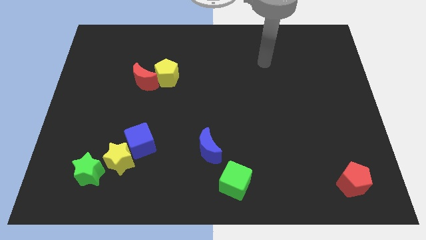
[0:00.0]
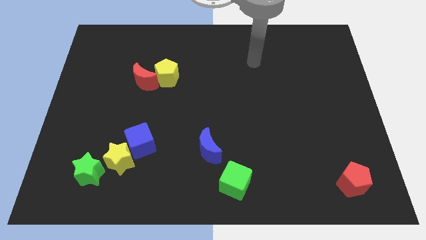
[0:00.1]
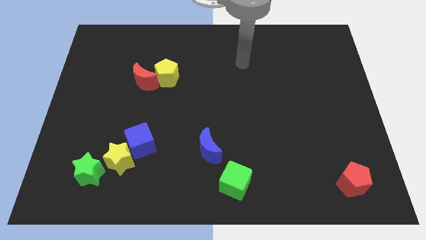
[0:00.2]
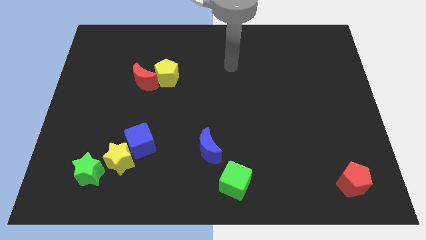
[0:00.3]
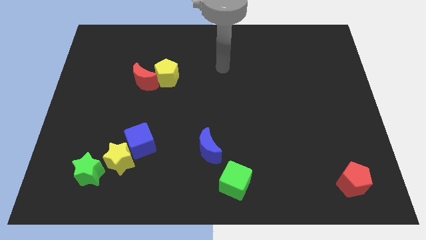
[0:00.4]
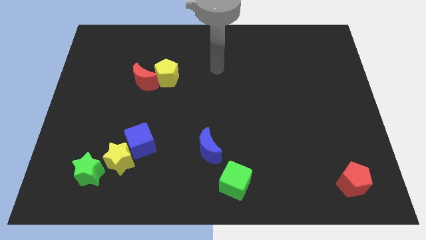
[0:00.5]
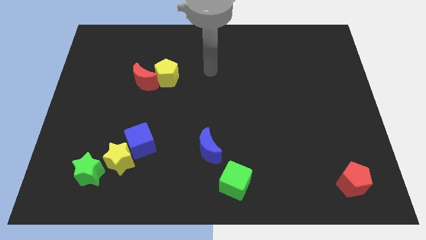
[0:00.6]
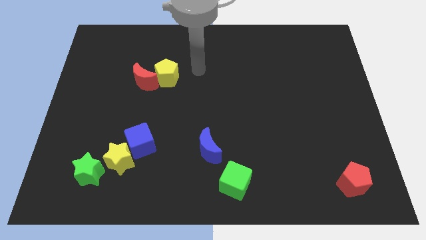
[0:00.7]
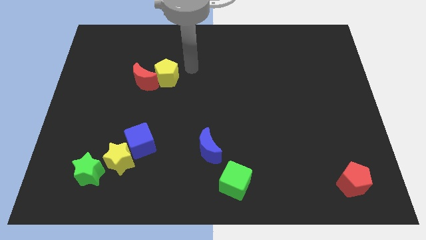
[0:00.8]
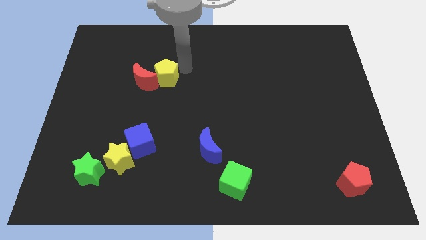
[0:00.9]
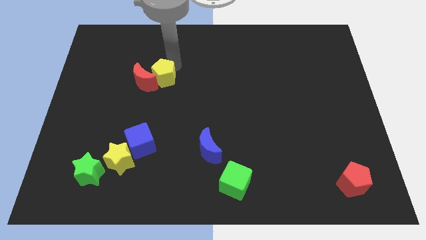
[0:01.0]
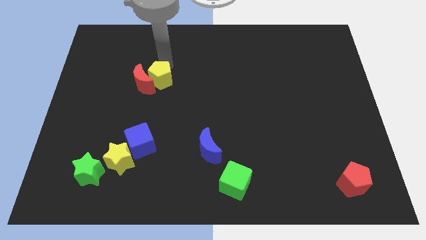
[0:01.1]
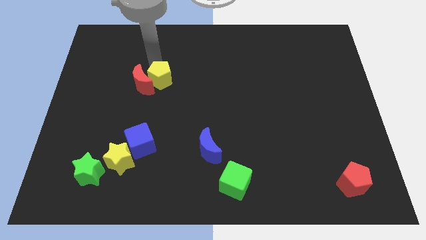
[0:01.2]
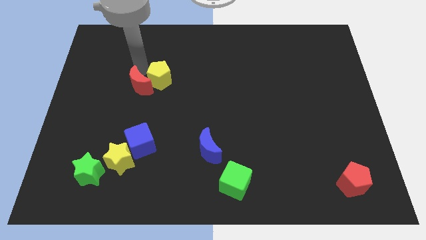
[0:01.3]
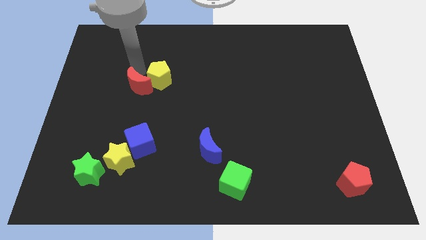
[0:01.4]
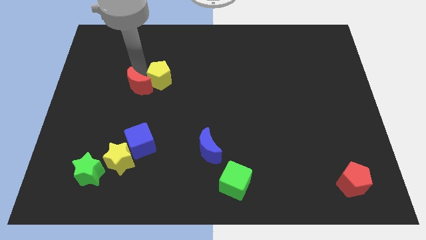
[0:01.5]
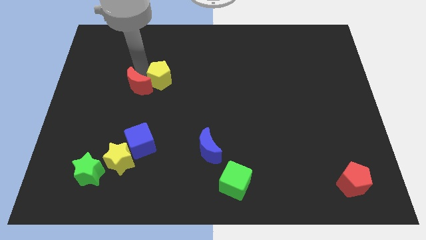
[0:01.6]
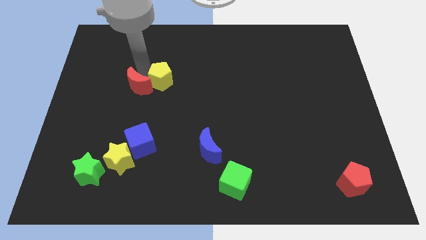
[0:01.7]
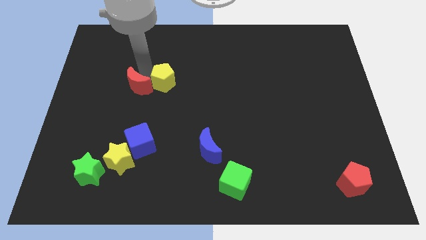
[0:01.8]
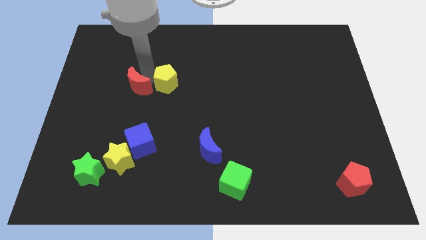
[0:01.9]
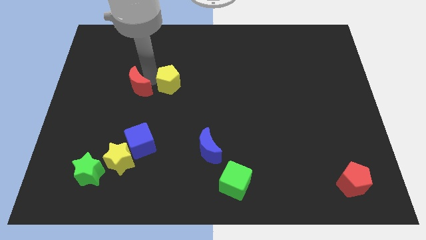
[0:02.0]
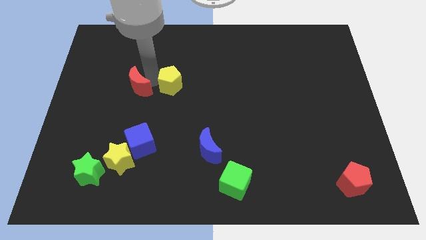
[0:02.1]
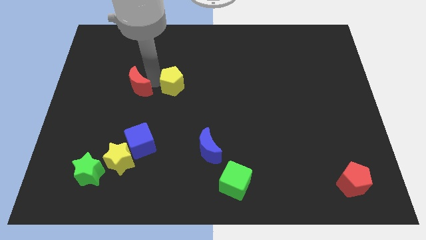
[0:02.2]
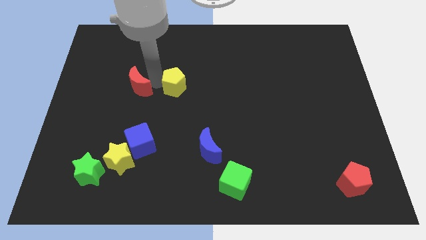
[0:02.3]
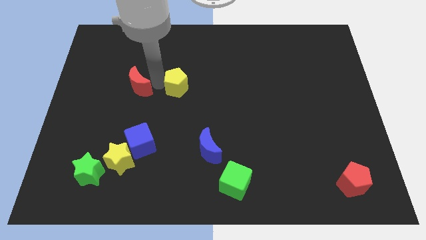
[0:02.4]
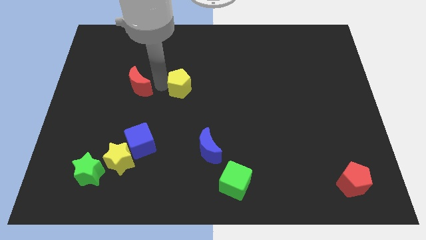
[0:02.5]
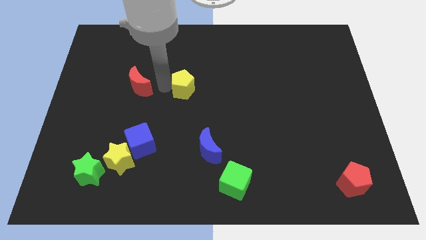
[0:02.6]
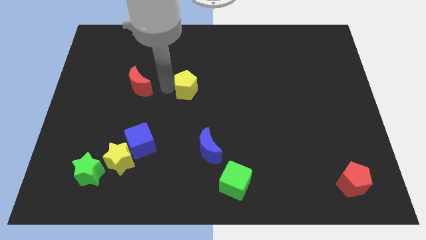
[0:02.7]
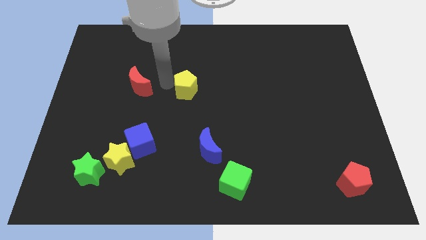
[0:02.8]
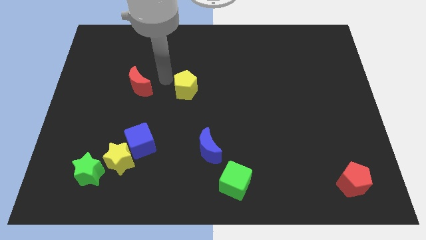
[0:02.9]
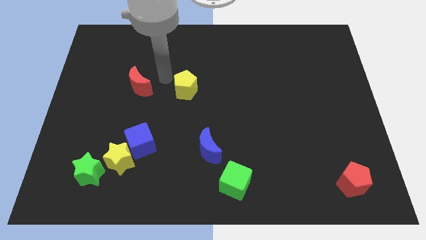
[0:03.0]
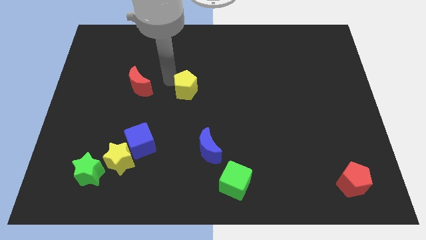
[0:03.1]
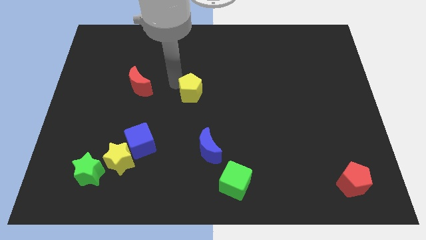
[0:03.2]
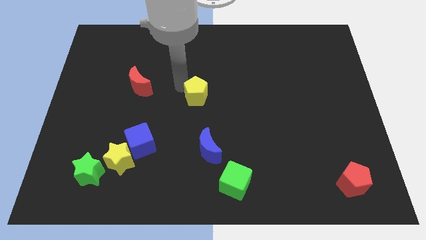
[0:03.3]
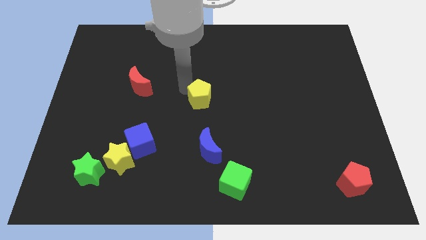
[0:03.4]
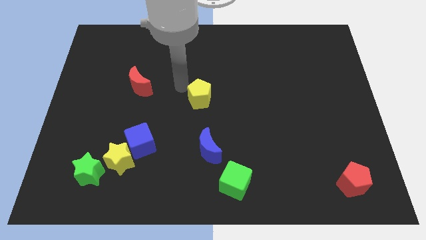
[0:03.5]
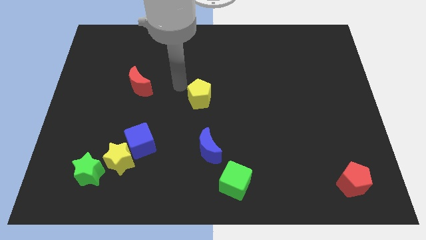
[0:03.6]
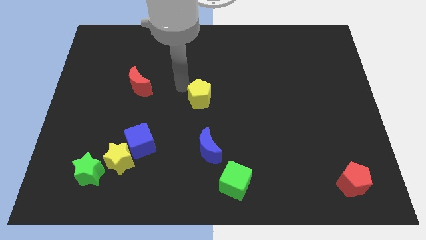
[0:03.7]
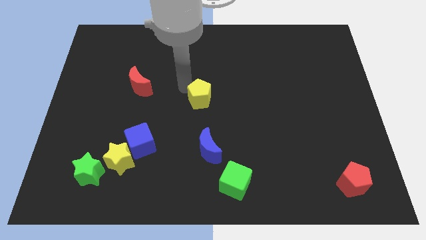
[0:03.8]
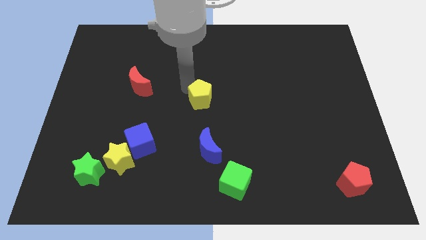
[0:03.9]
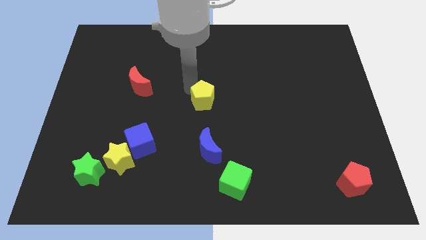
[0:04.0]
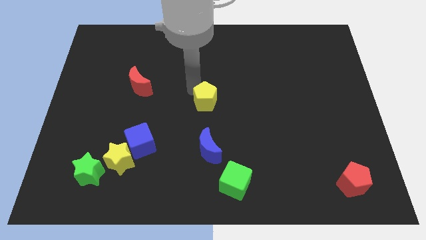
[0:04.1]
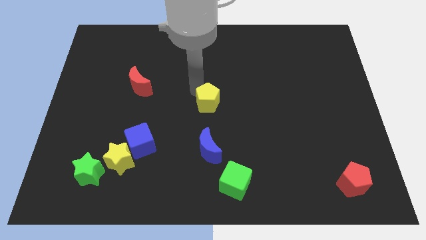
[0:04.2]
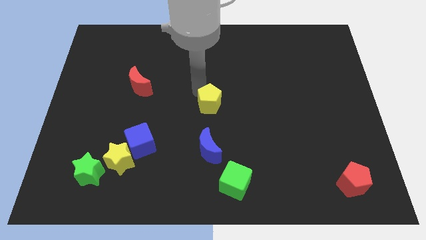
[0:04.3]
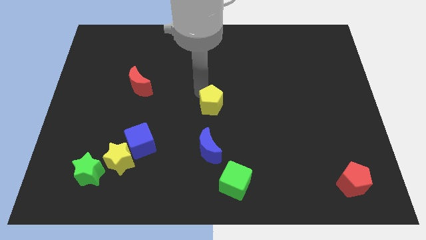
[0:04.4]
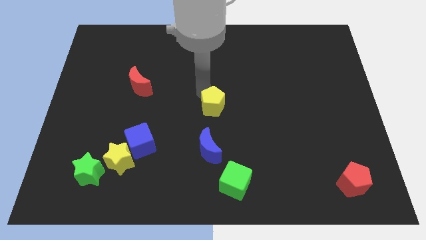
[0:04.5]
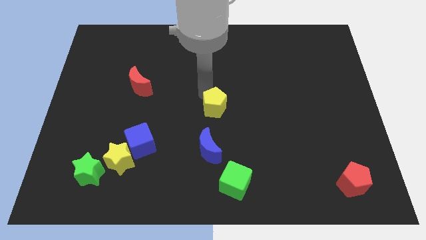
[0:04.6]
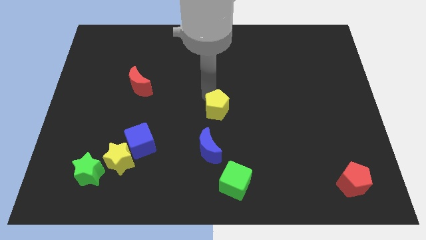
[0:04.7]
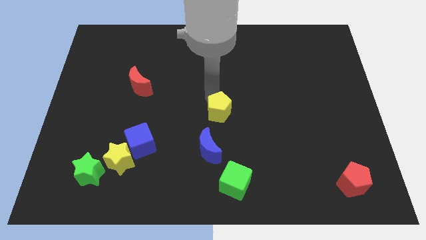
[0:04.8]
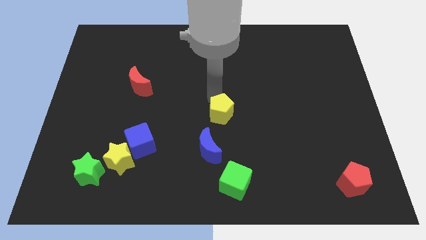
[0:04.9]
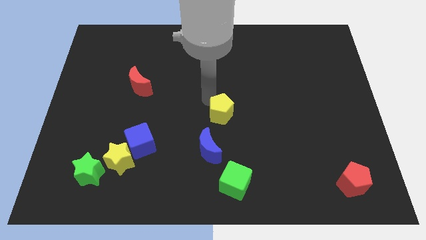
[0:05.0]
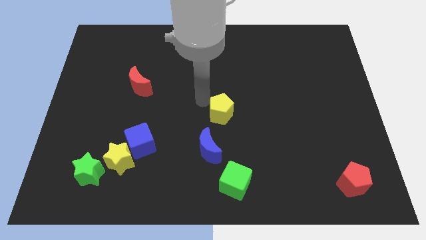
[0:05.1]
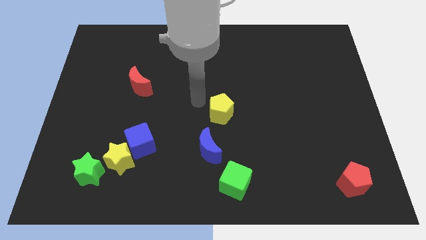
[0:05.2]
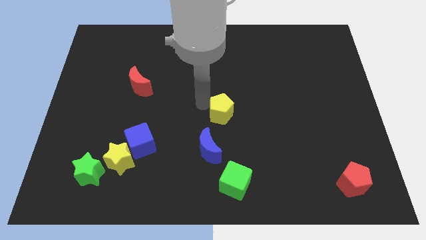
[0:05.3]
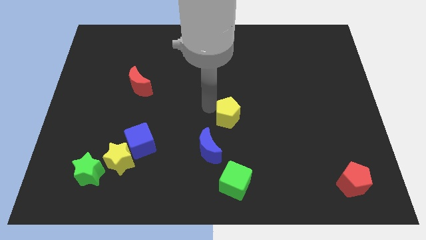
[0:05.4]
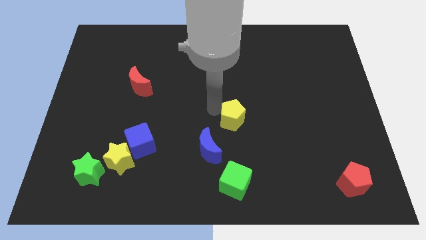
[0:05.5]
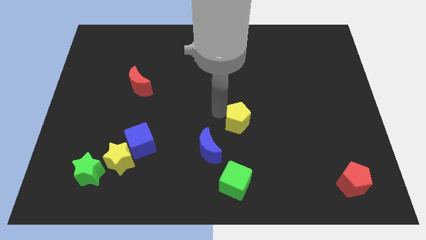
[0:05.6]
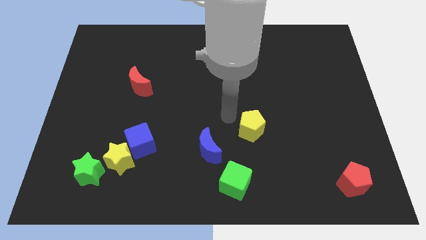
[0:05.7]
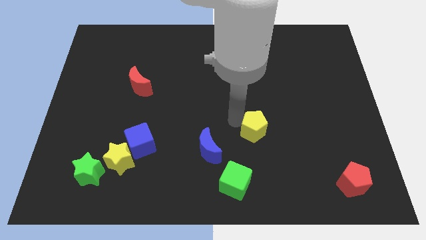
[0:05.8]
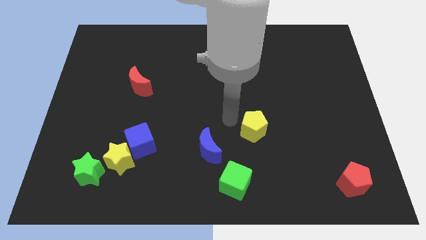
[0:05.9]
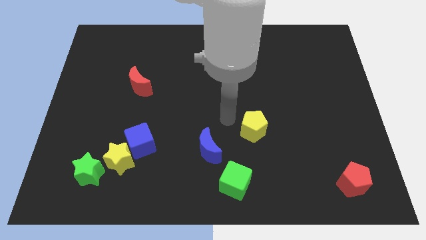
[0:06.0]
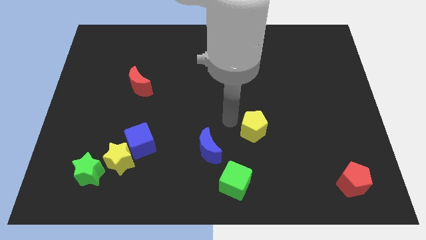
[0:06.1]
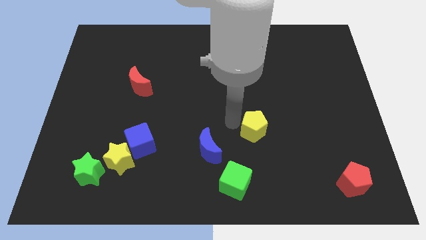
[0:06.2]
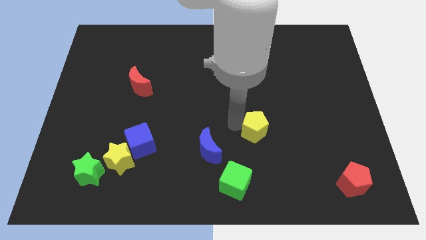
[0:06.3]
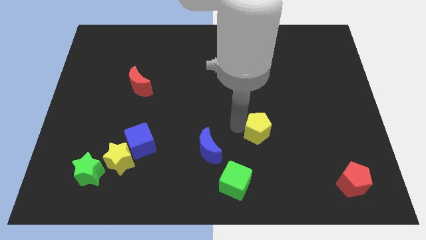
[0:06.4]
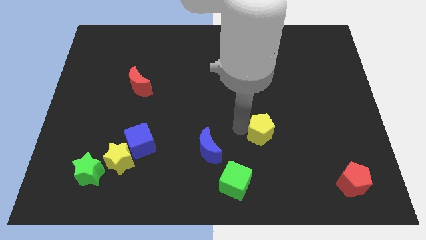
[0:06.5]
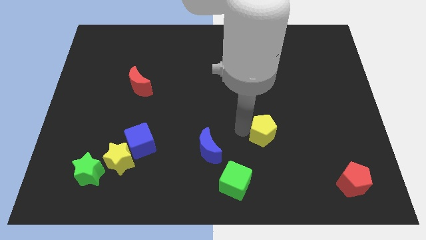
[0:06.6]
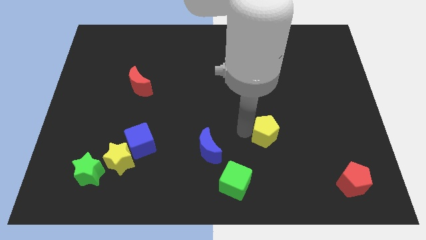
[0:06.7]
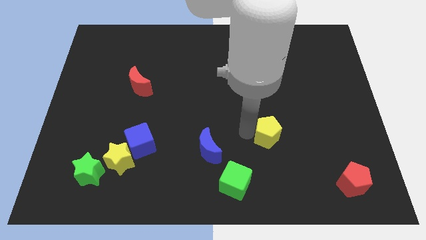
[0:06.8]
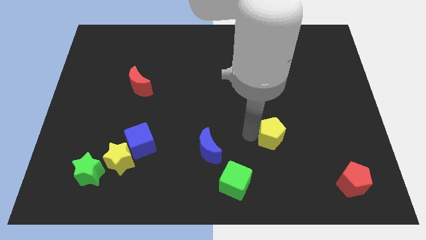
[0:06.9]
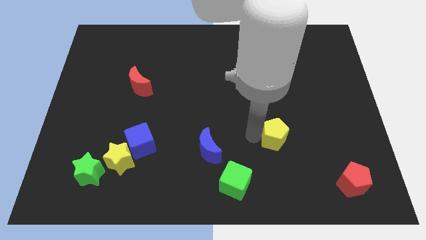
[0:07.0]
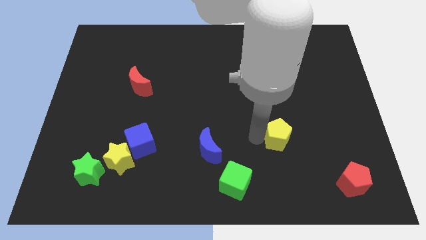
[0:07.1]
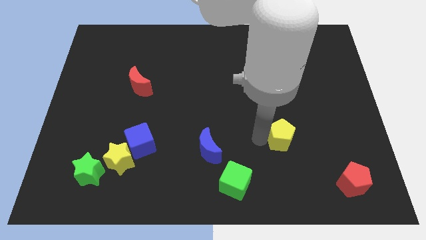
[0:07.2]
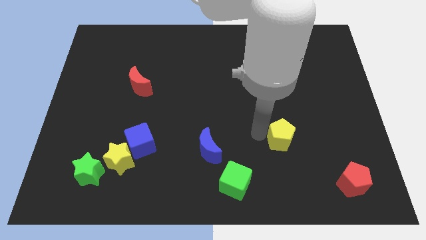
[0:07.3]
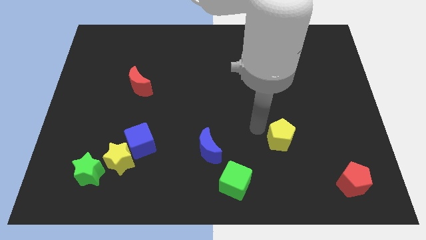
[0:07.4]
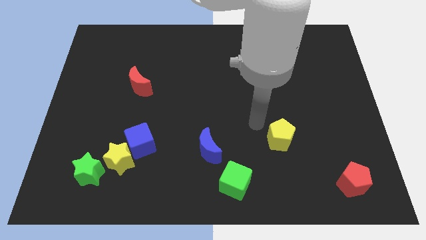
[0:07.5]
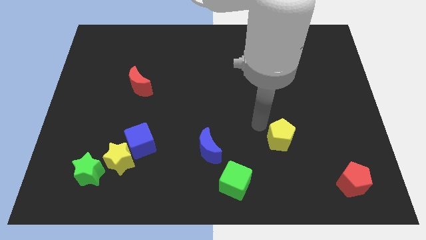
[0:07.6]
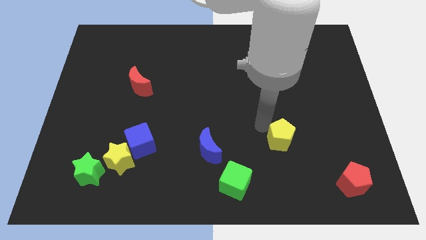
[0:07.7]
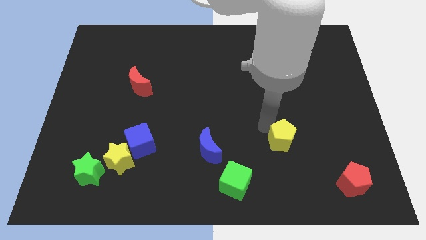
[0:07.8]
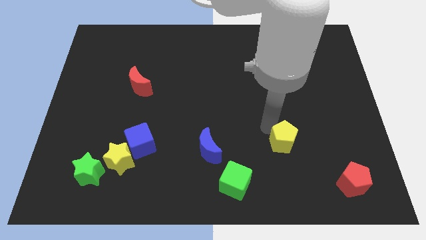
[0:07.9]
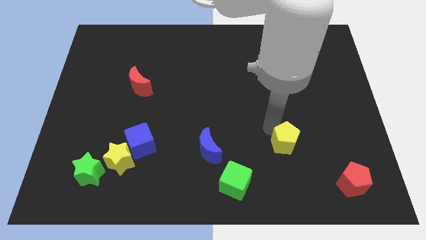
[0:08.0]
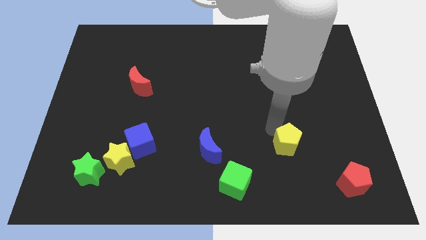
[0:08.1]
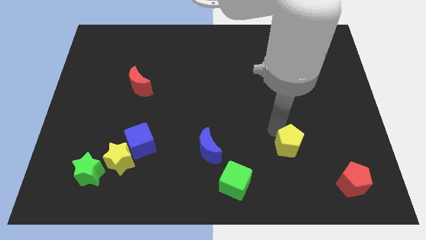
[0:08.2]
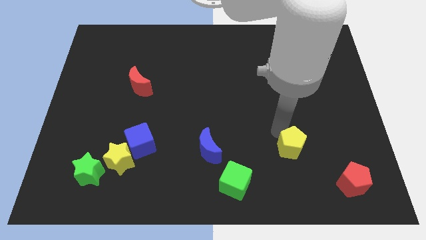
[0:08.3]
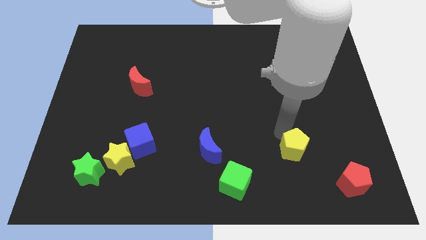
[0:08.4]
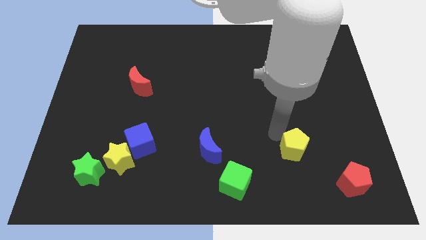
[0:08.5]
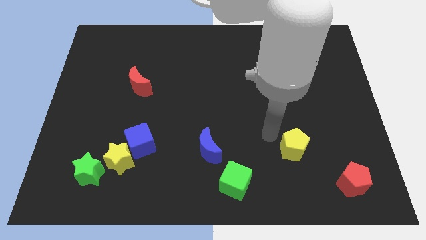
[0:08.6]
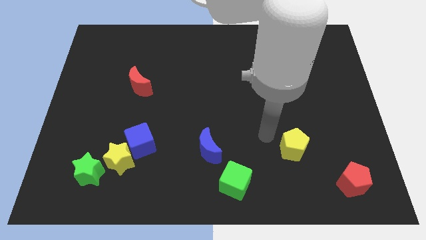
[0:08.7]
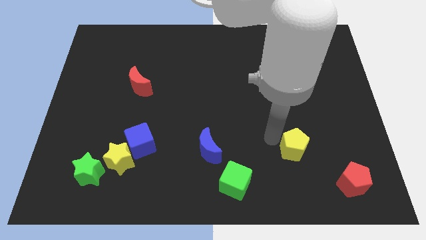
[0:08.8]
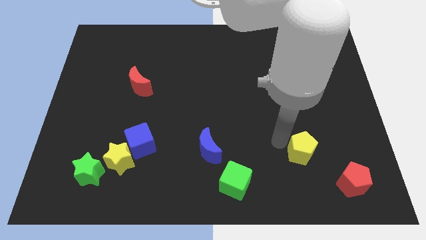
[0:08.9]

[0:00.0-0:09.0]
move the yellow pentagon to the top left side of the red pentagon
